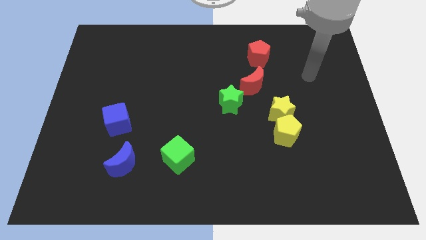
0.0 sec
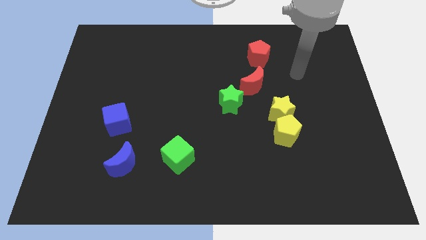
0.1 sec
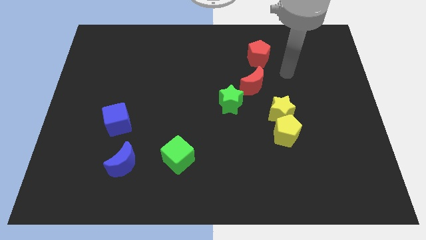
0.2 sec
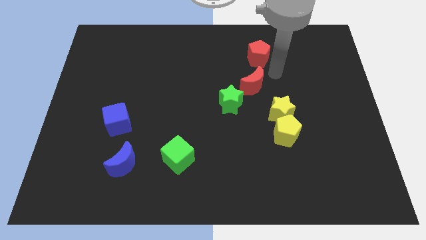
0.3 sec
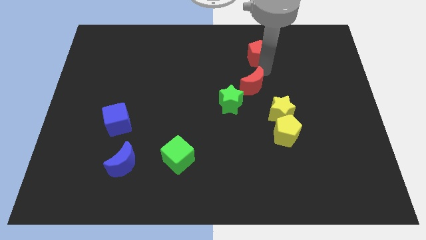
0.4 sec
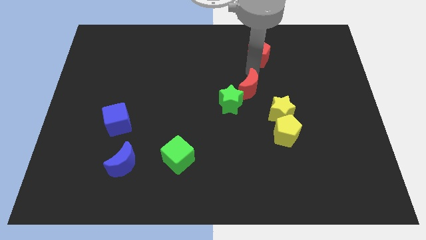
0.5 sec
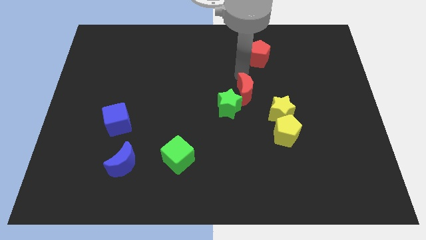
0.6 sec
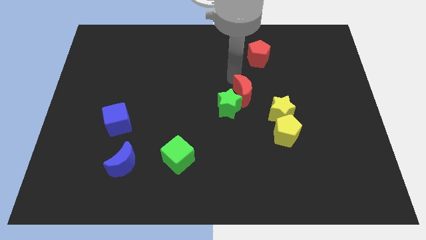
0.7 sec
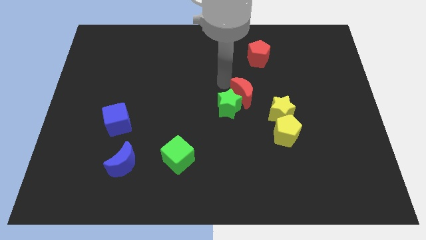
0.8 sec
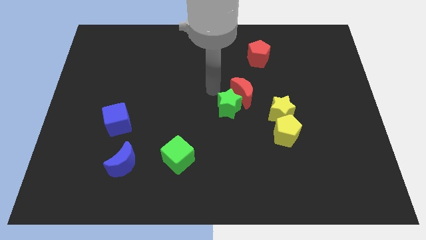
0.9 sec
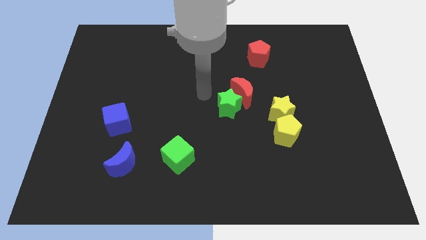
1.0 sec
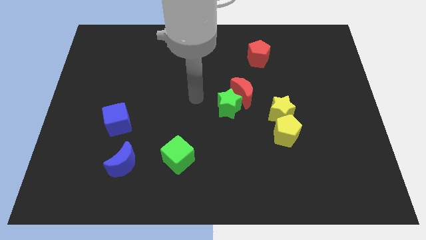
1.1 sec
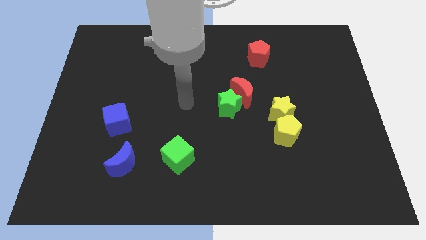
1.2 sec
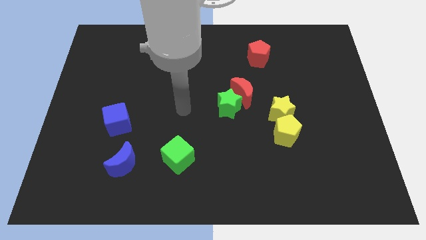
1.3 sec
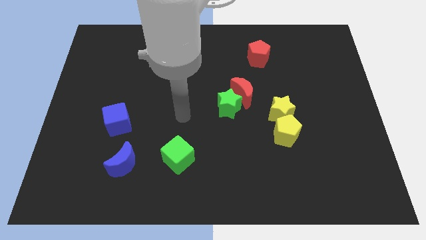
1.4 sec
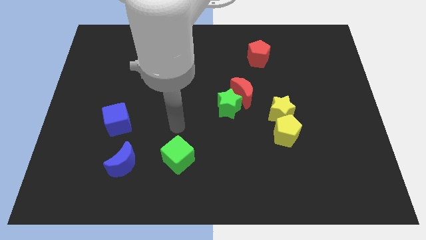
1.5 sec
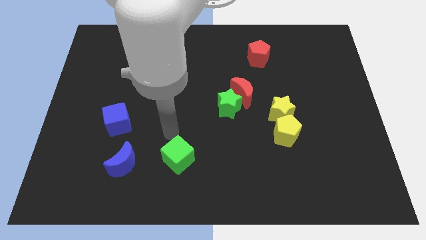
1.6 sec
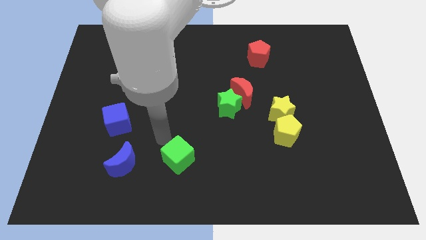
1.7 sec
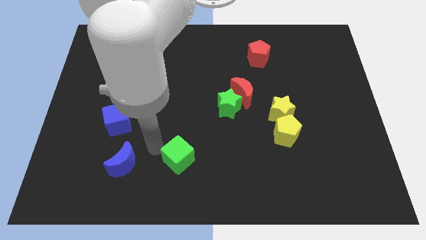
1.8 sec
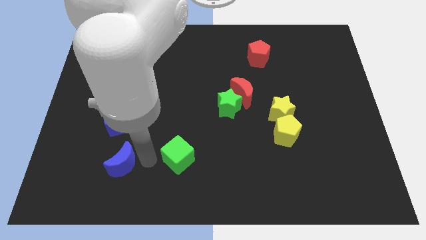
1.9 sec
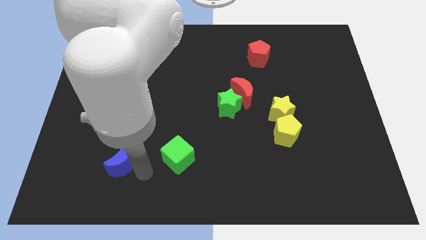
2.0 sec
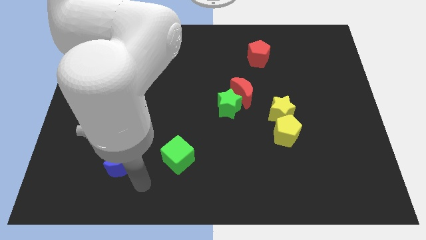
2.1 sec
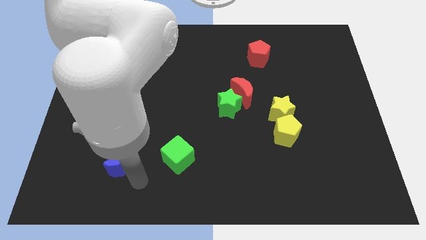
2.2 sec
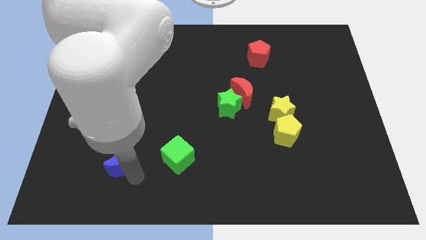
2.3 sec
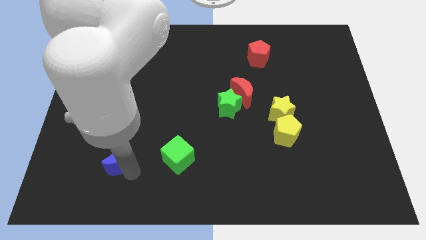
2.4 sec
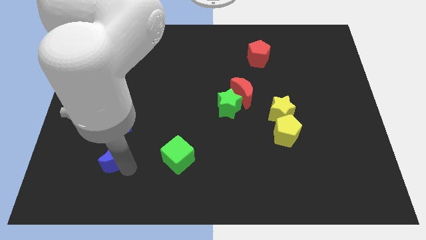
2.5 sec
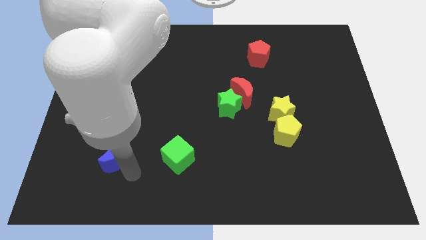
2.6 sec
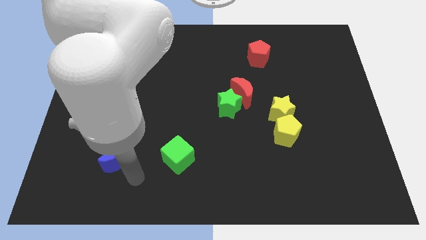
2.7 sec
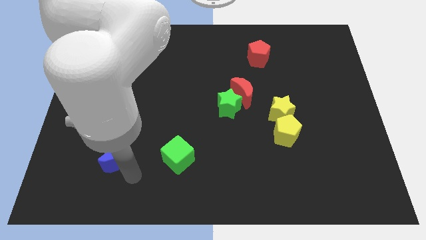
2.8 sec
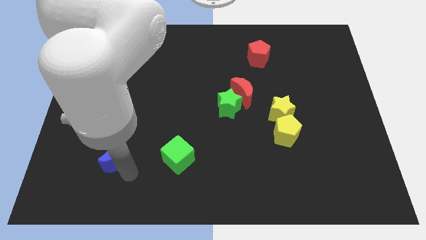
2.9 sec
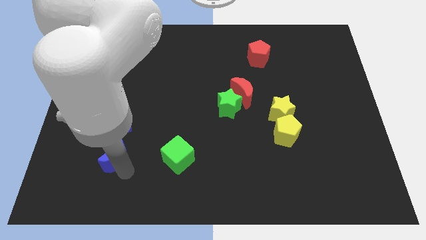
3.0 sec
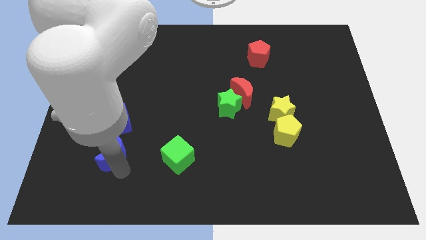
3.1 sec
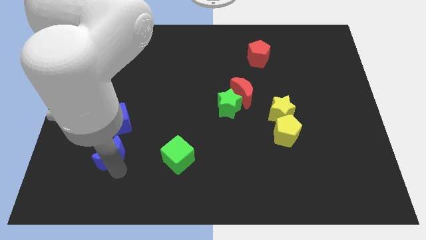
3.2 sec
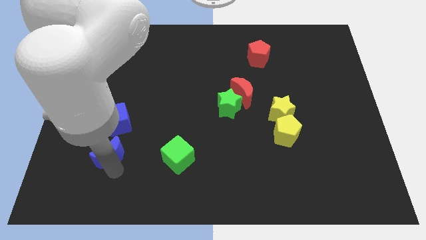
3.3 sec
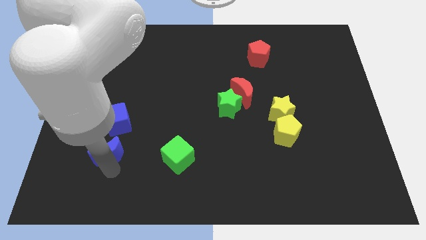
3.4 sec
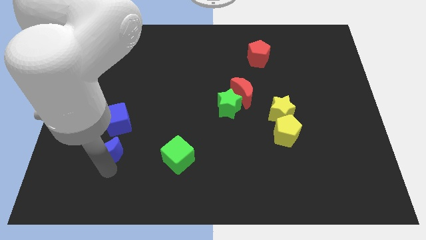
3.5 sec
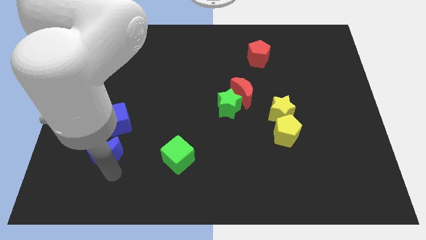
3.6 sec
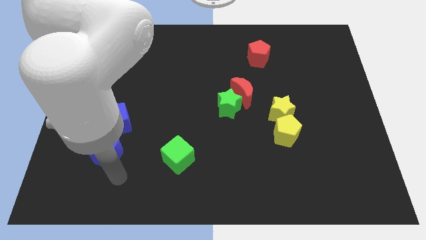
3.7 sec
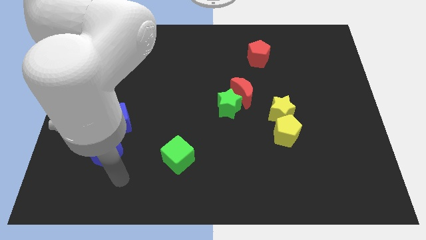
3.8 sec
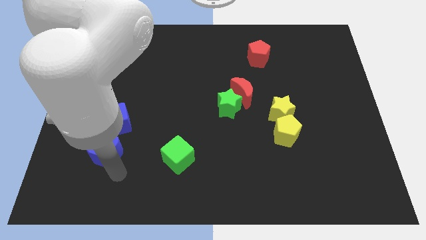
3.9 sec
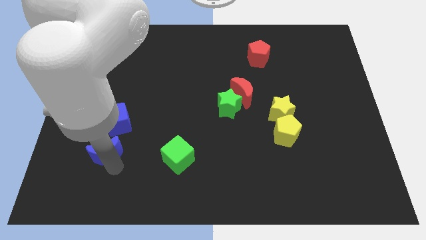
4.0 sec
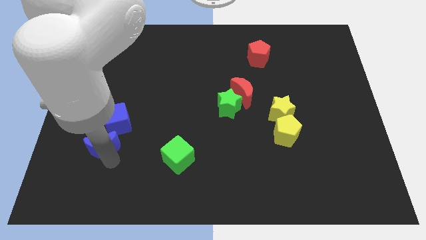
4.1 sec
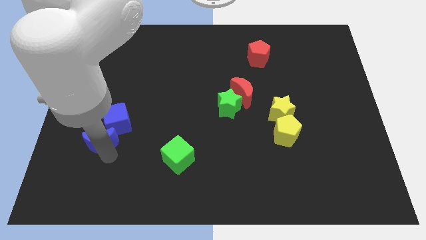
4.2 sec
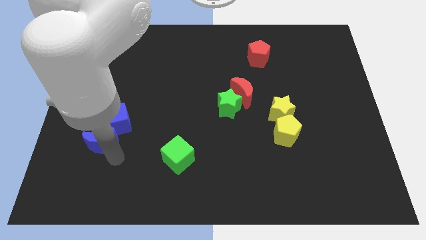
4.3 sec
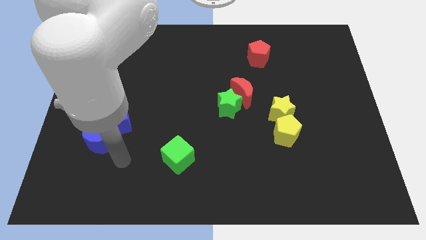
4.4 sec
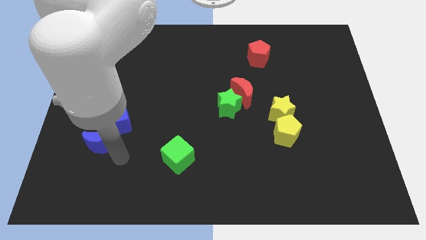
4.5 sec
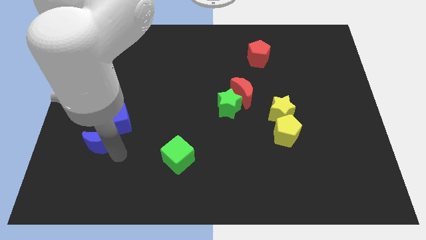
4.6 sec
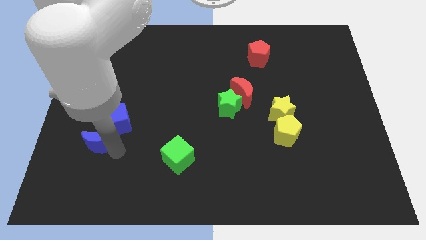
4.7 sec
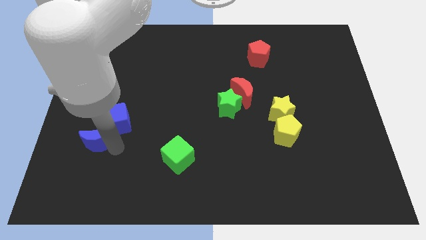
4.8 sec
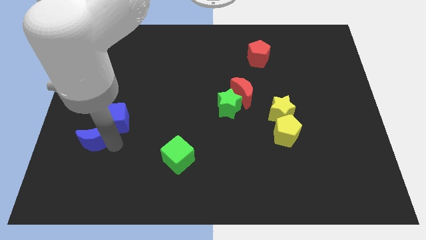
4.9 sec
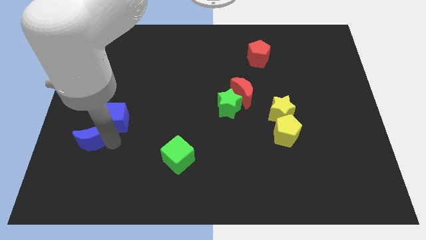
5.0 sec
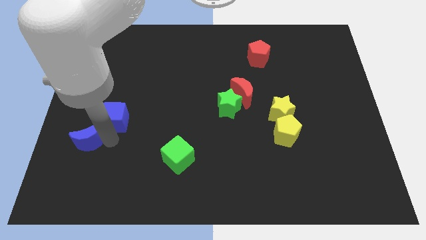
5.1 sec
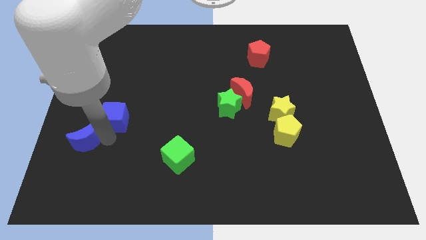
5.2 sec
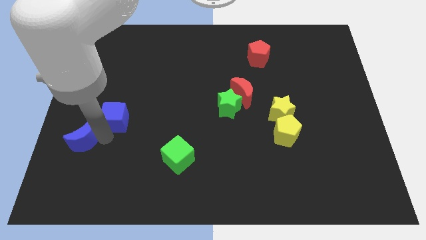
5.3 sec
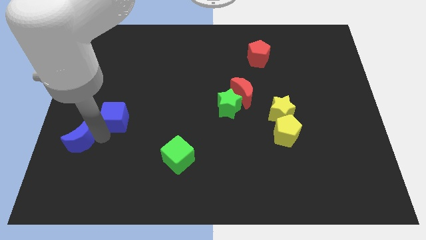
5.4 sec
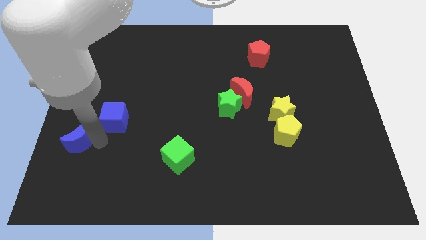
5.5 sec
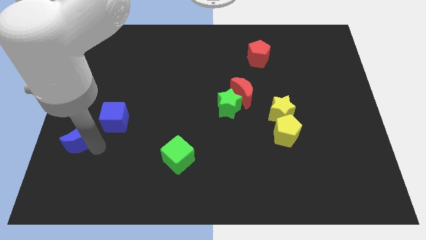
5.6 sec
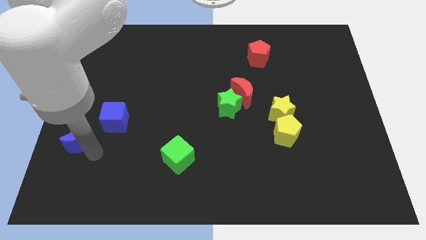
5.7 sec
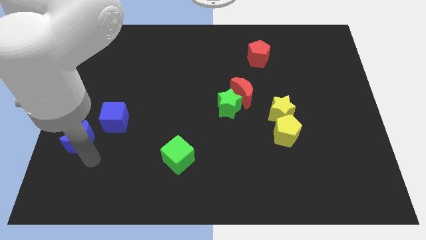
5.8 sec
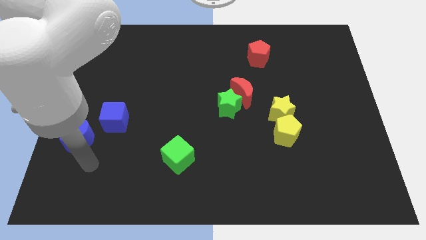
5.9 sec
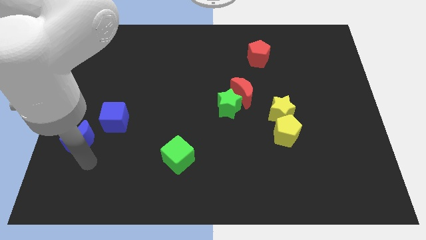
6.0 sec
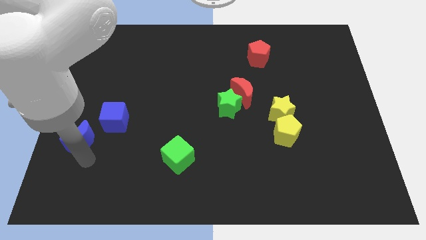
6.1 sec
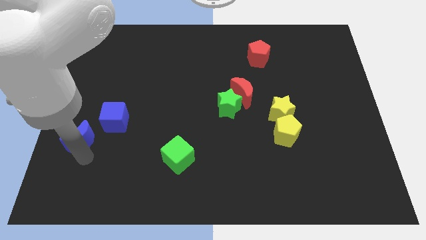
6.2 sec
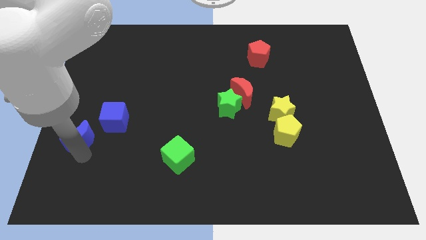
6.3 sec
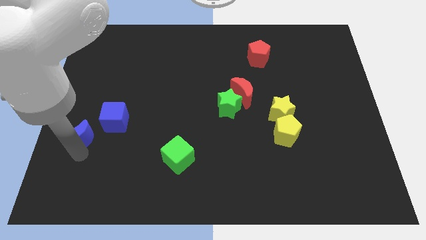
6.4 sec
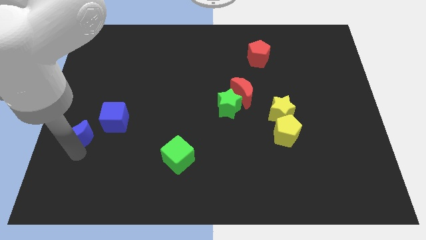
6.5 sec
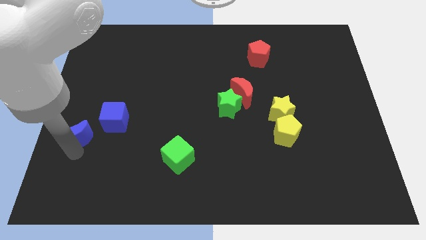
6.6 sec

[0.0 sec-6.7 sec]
move the blue moon to the left side
